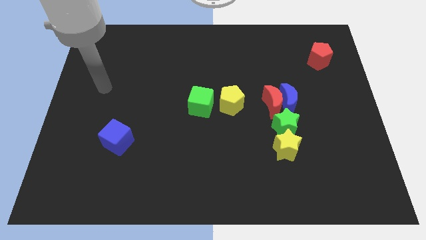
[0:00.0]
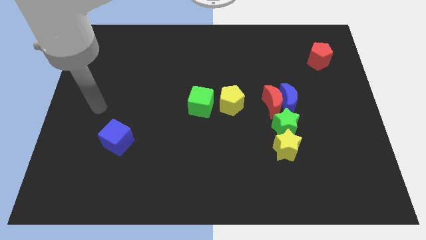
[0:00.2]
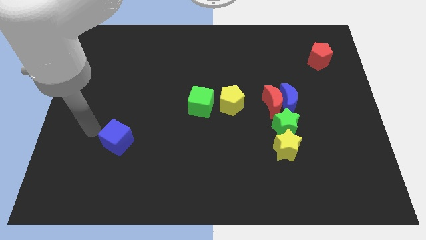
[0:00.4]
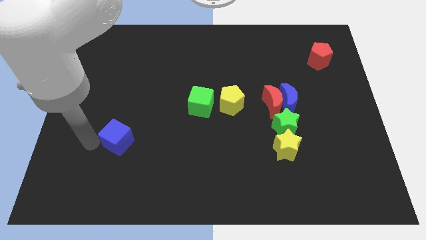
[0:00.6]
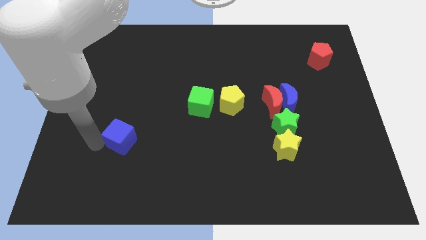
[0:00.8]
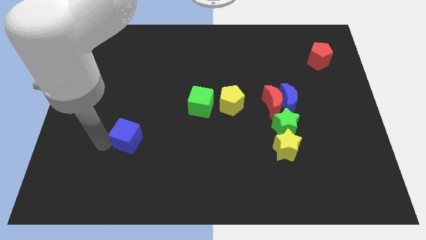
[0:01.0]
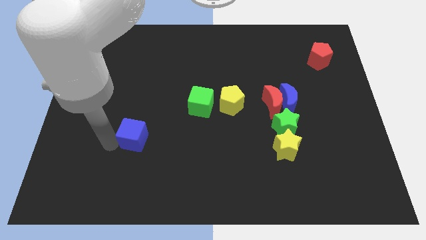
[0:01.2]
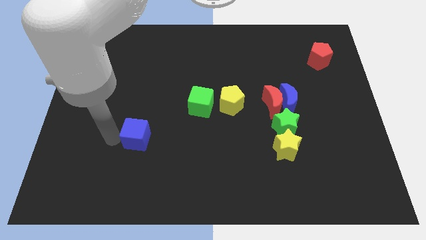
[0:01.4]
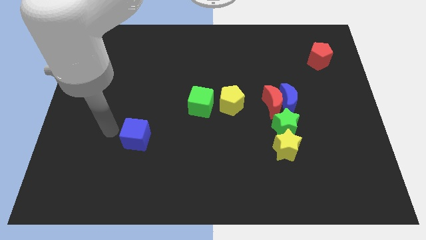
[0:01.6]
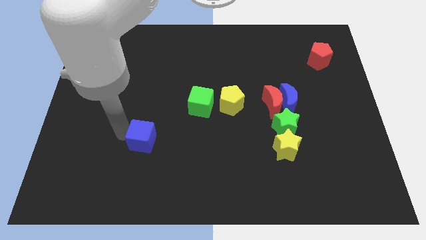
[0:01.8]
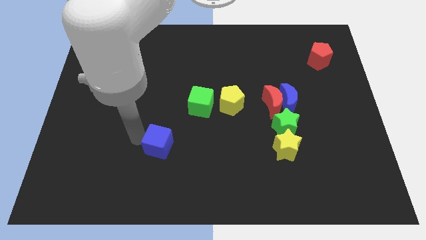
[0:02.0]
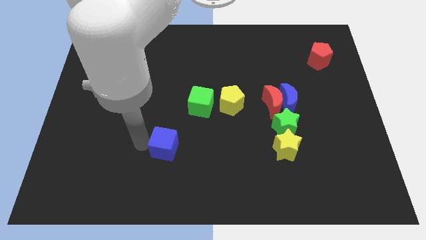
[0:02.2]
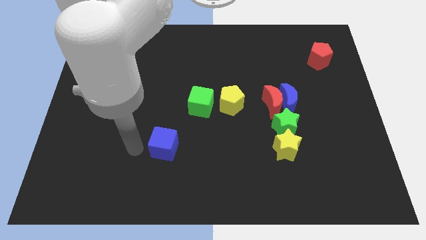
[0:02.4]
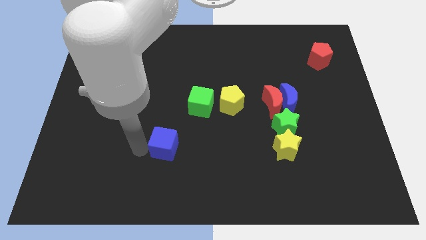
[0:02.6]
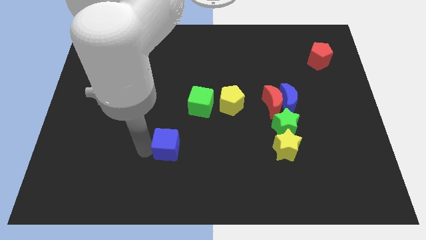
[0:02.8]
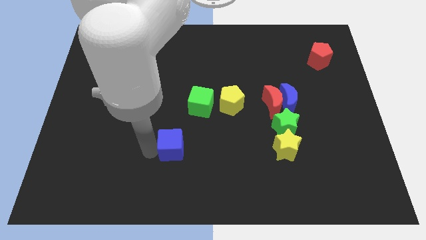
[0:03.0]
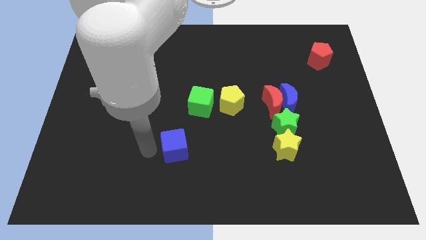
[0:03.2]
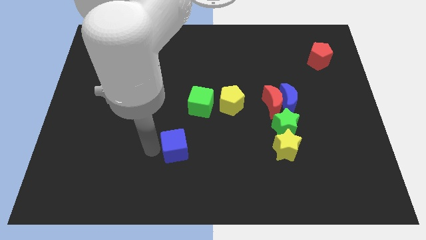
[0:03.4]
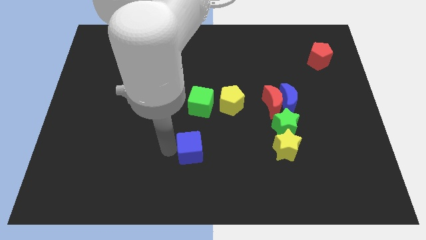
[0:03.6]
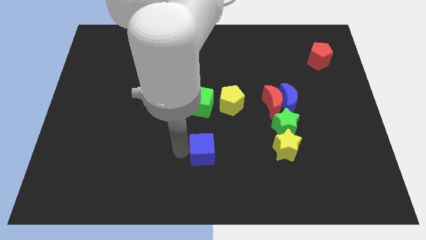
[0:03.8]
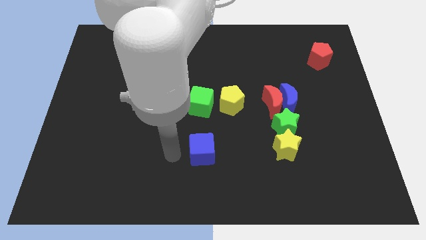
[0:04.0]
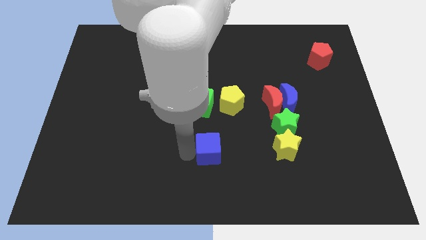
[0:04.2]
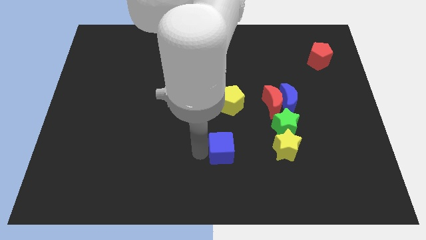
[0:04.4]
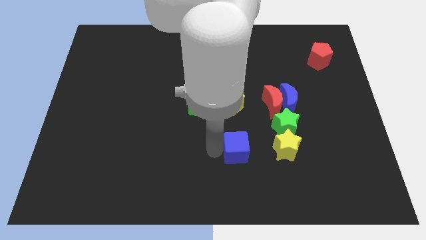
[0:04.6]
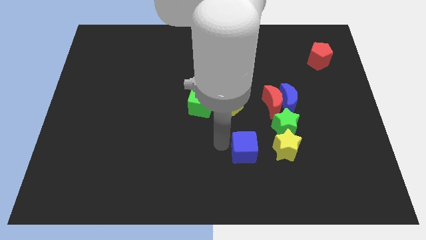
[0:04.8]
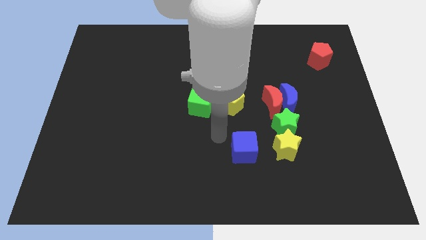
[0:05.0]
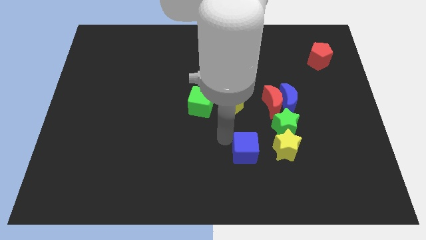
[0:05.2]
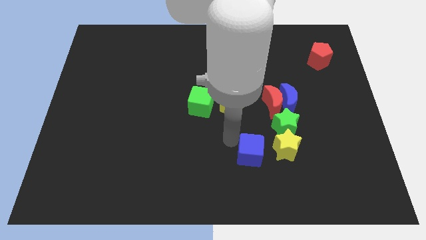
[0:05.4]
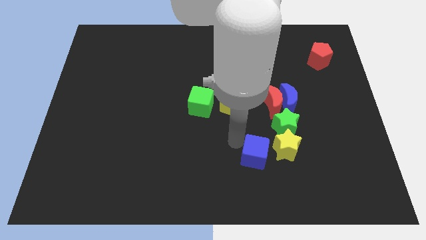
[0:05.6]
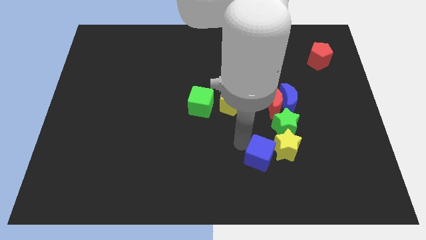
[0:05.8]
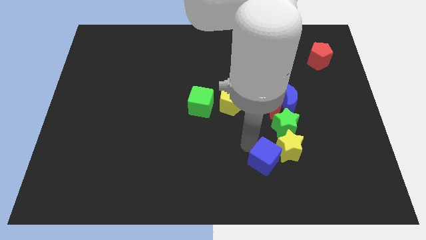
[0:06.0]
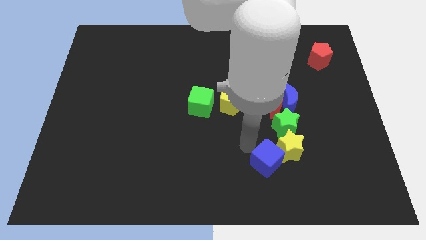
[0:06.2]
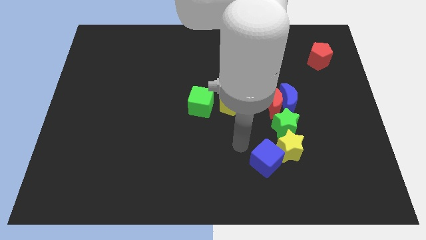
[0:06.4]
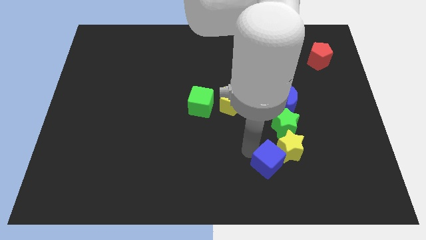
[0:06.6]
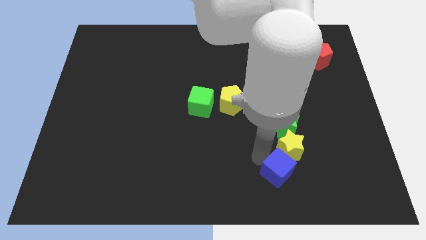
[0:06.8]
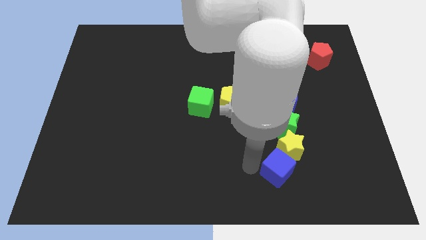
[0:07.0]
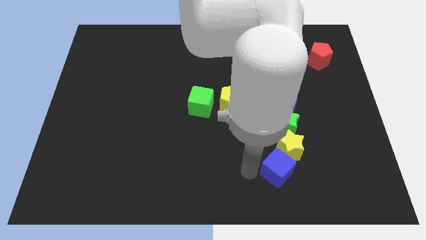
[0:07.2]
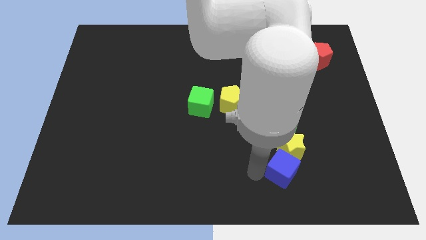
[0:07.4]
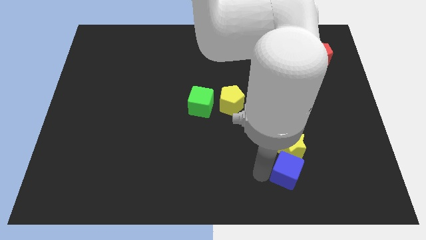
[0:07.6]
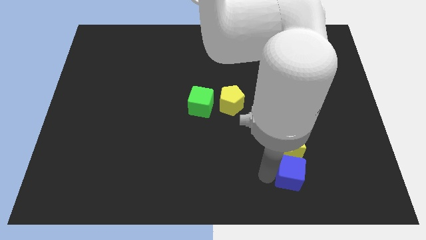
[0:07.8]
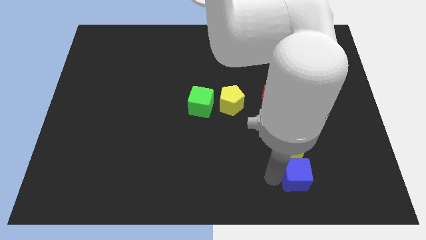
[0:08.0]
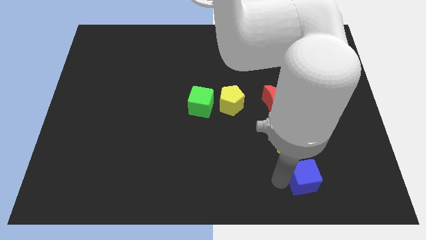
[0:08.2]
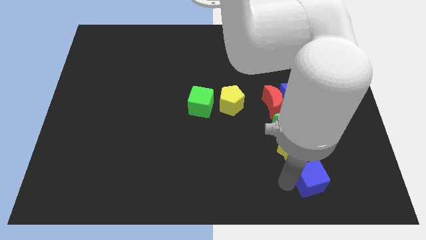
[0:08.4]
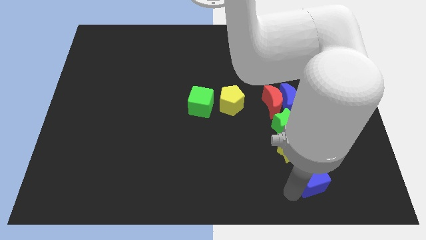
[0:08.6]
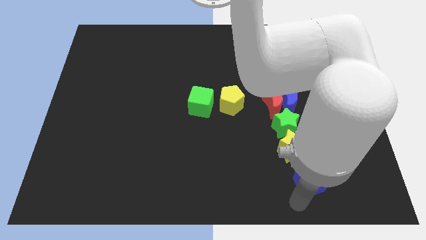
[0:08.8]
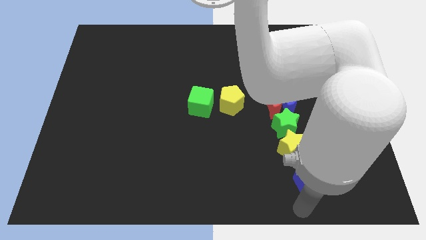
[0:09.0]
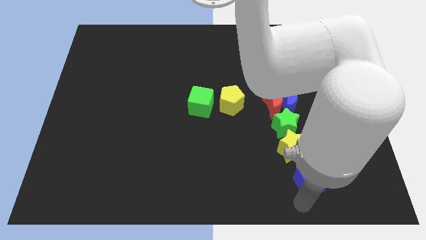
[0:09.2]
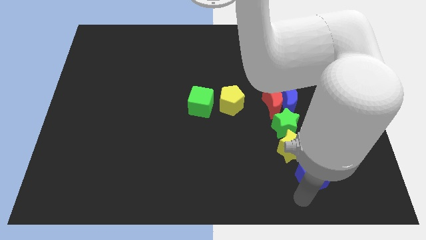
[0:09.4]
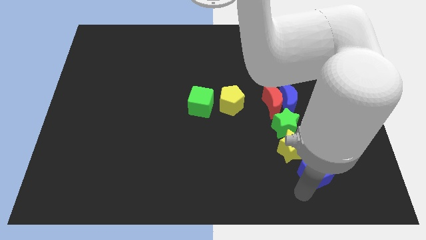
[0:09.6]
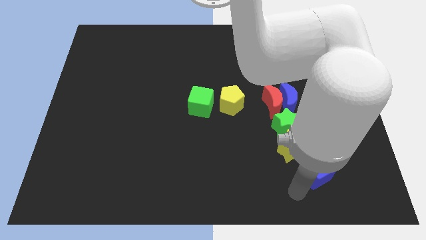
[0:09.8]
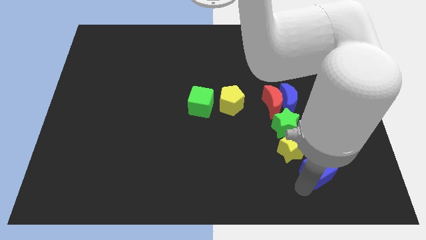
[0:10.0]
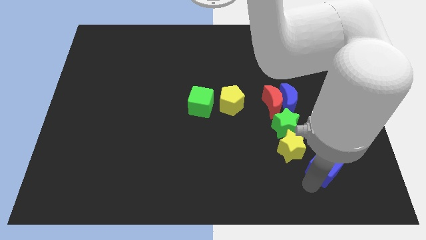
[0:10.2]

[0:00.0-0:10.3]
move the blue cube to the right side of the yellow star

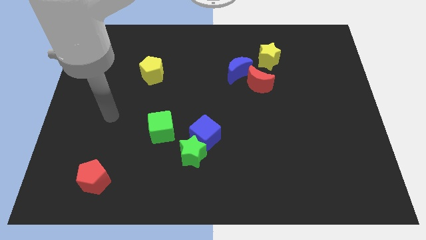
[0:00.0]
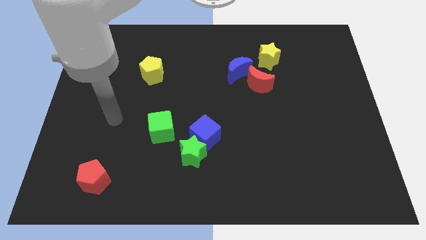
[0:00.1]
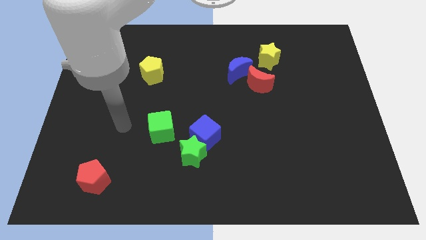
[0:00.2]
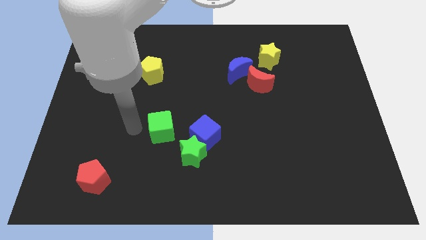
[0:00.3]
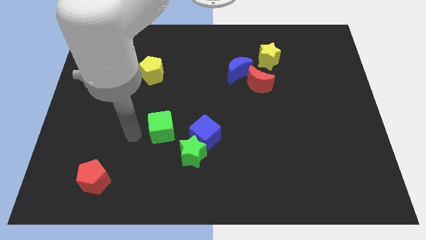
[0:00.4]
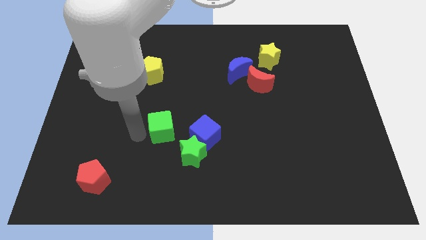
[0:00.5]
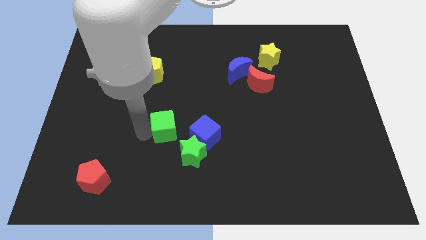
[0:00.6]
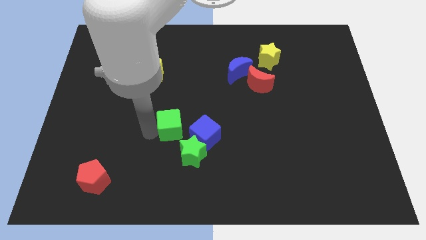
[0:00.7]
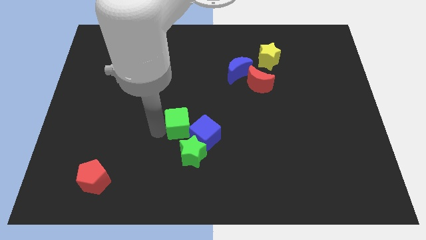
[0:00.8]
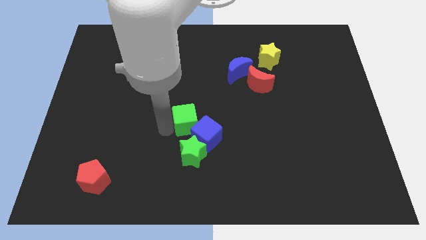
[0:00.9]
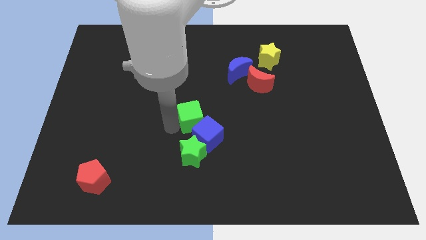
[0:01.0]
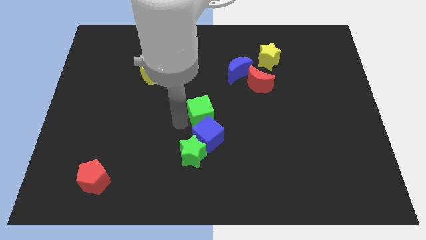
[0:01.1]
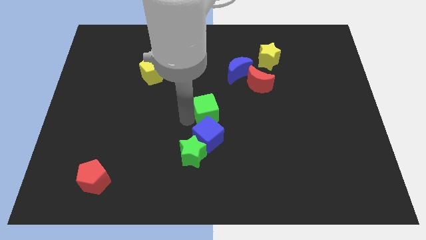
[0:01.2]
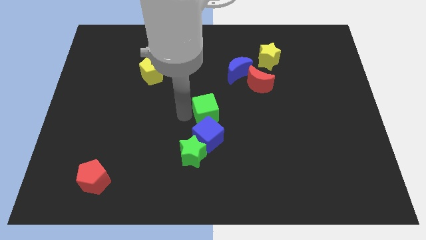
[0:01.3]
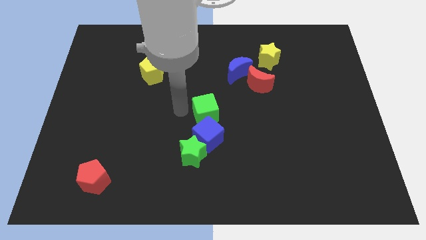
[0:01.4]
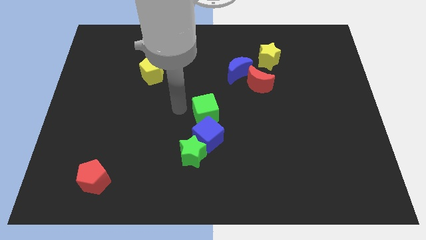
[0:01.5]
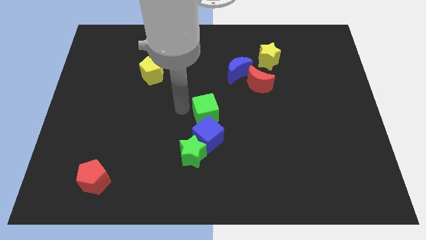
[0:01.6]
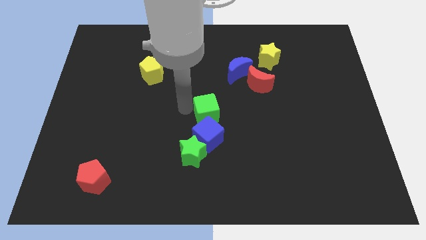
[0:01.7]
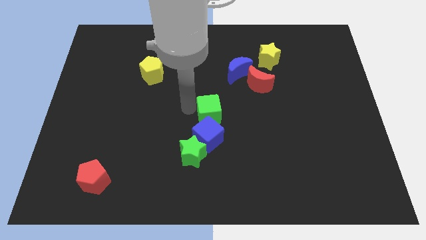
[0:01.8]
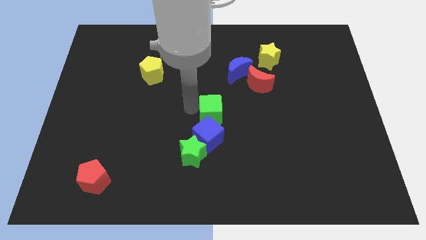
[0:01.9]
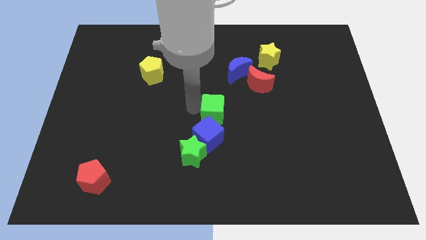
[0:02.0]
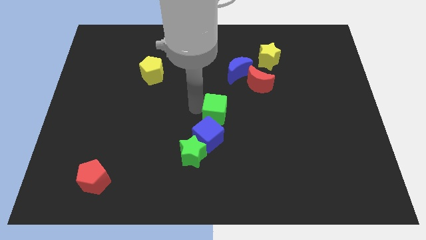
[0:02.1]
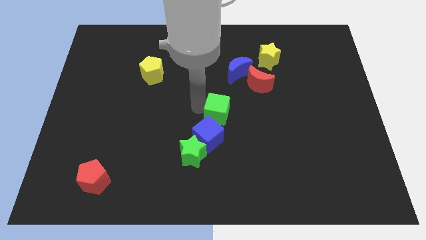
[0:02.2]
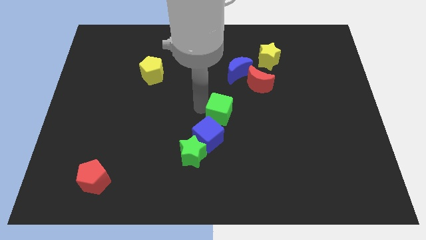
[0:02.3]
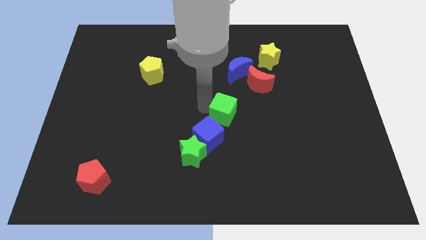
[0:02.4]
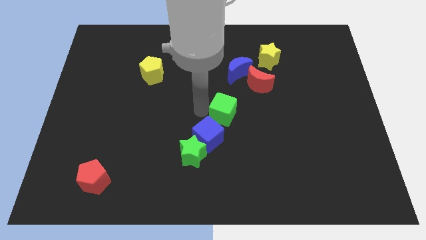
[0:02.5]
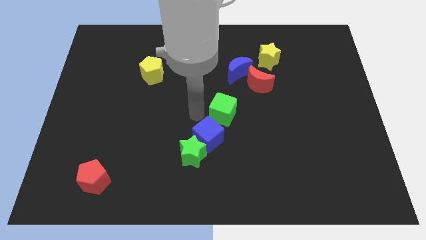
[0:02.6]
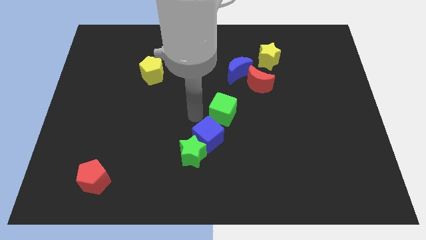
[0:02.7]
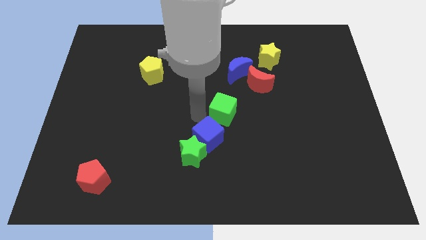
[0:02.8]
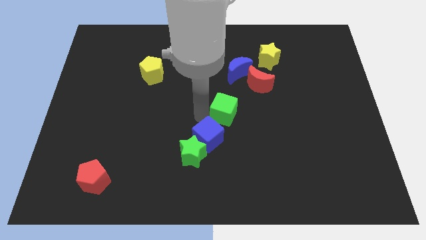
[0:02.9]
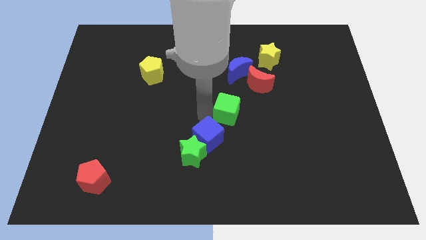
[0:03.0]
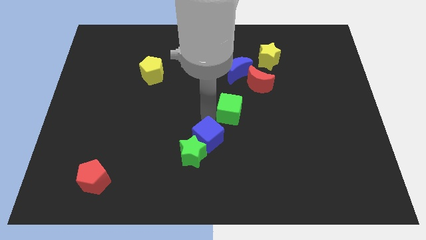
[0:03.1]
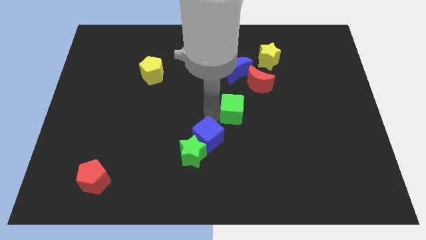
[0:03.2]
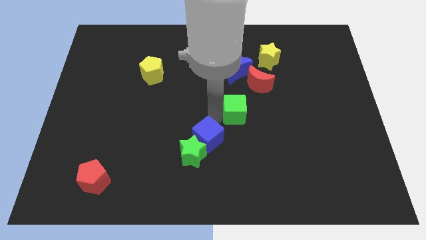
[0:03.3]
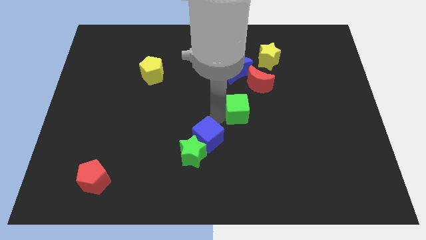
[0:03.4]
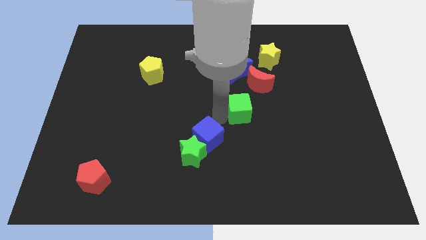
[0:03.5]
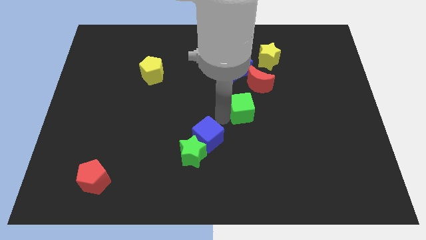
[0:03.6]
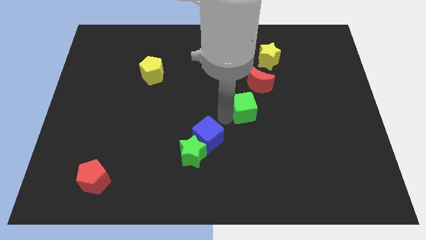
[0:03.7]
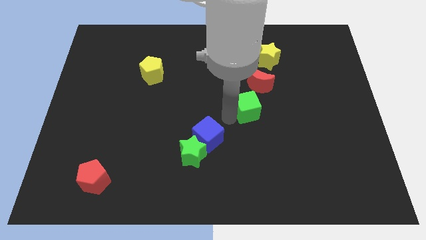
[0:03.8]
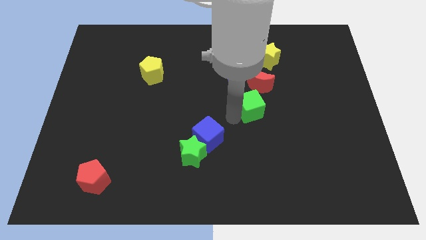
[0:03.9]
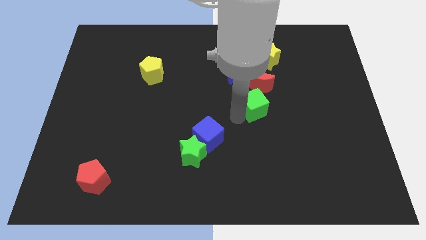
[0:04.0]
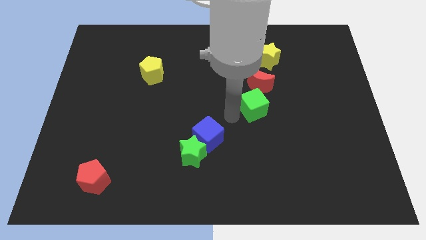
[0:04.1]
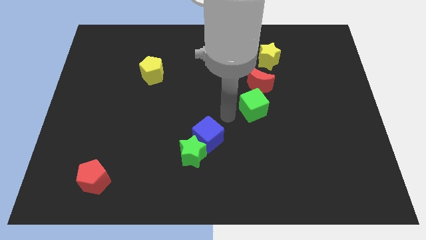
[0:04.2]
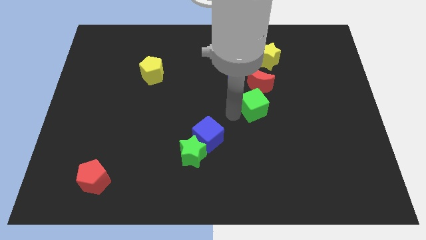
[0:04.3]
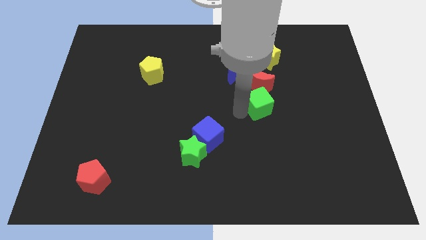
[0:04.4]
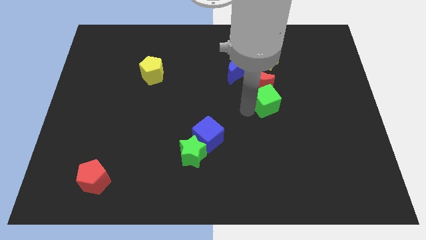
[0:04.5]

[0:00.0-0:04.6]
push the green cube to the bottom right of the red moon
